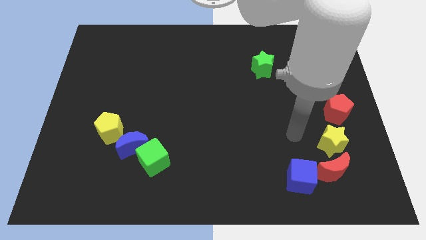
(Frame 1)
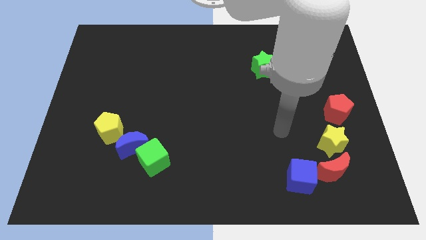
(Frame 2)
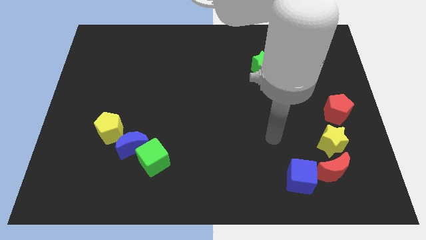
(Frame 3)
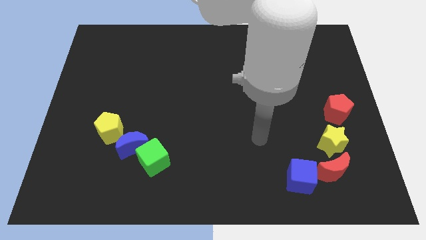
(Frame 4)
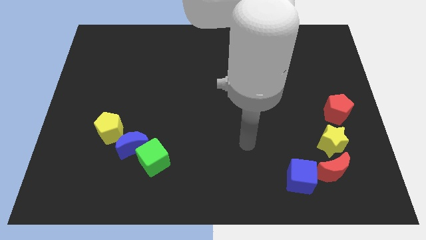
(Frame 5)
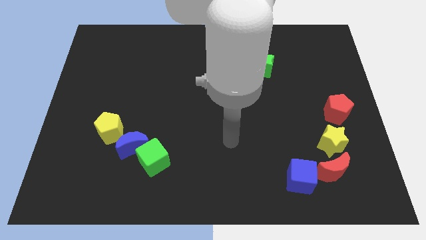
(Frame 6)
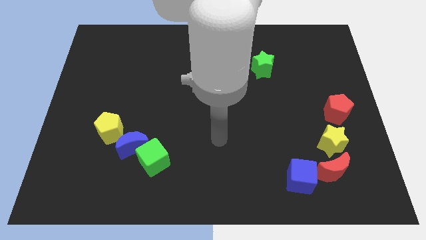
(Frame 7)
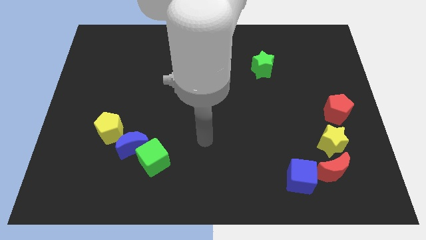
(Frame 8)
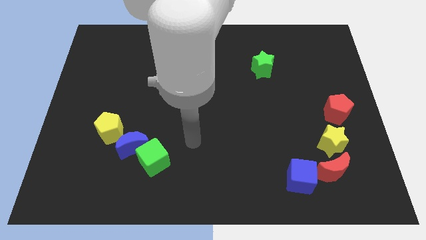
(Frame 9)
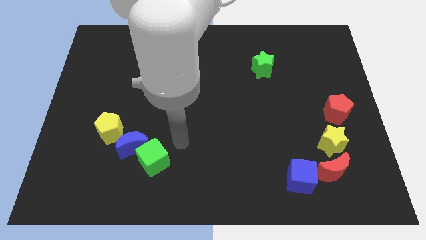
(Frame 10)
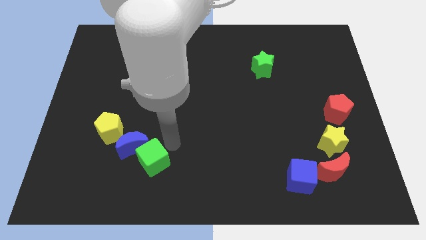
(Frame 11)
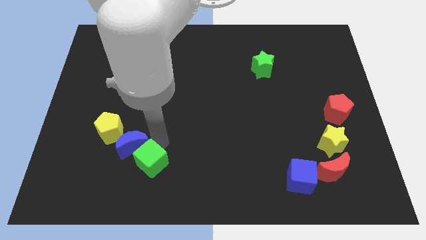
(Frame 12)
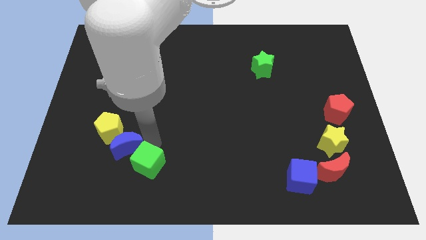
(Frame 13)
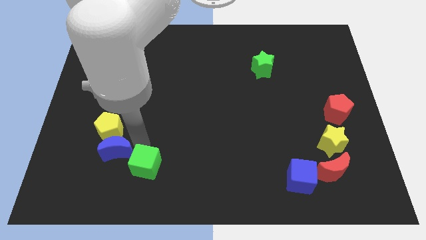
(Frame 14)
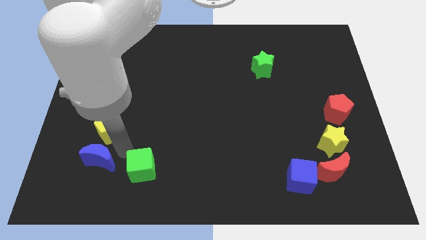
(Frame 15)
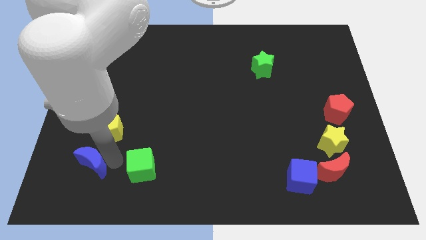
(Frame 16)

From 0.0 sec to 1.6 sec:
pull the green cube apart from the blue moon

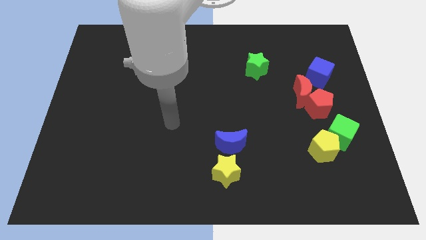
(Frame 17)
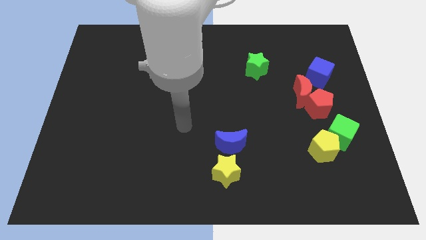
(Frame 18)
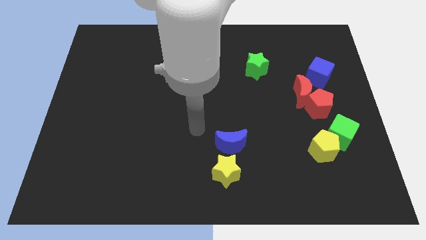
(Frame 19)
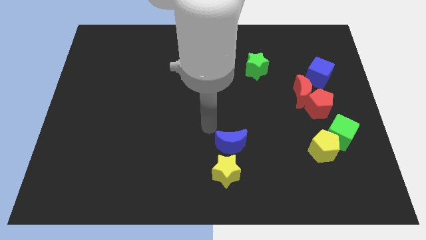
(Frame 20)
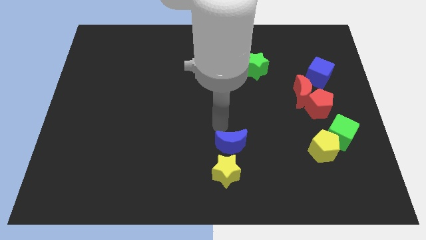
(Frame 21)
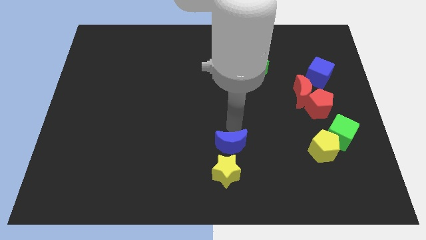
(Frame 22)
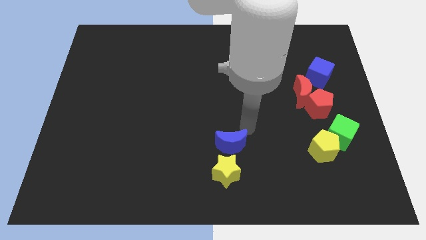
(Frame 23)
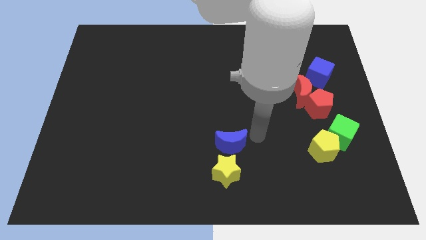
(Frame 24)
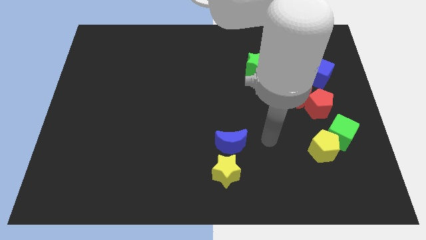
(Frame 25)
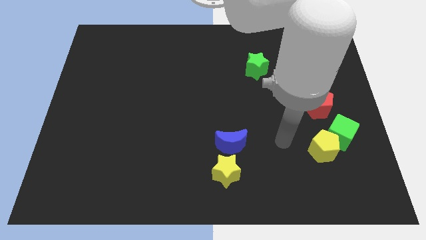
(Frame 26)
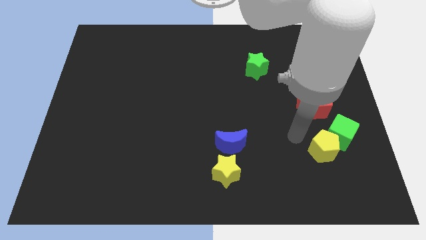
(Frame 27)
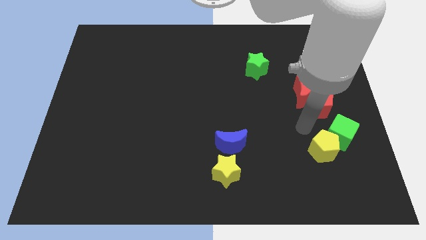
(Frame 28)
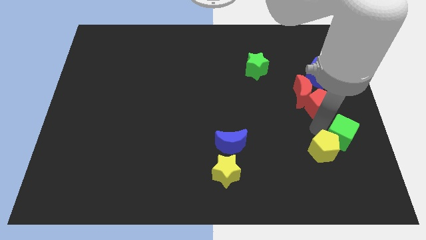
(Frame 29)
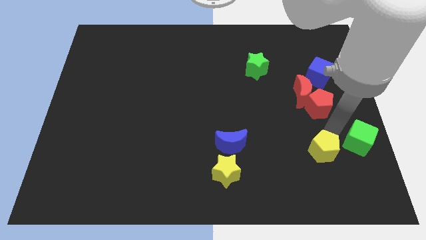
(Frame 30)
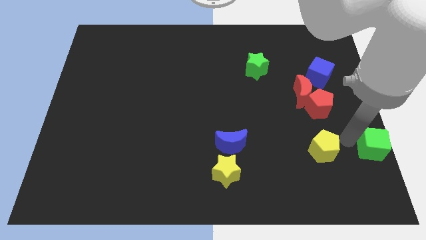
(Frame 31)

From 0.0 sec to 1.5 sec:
move the yellow pentagon away from the green cube

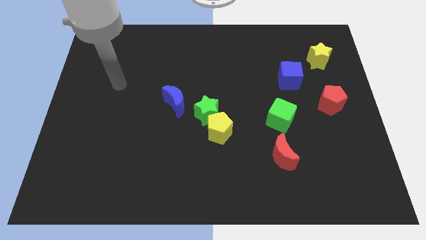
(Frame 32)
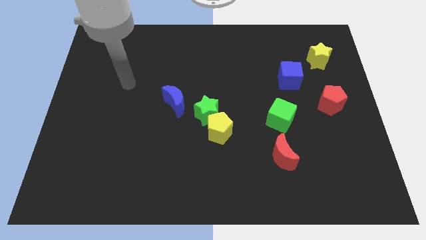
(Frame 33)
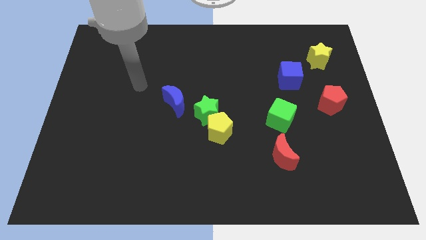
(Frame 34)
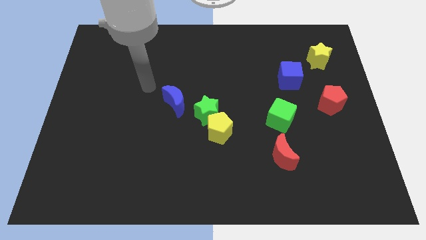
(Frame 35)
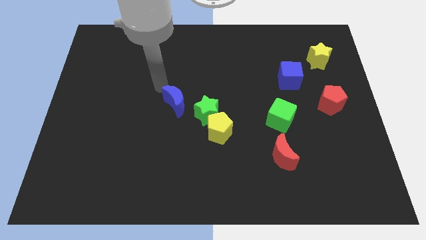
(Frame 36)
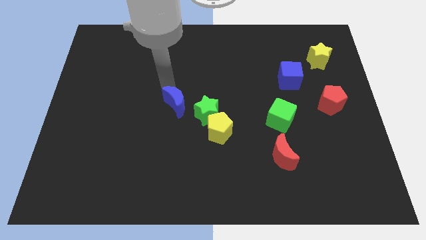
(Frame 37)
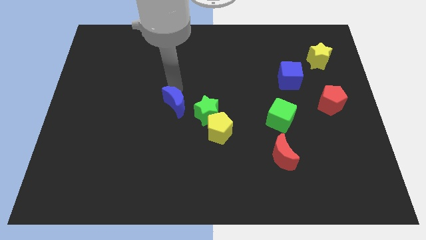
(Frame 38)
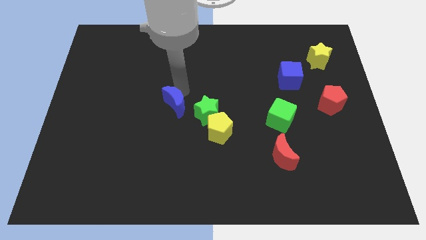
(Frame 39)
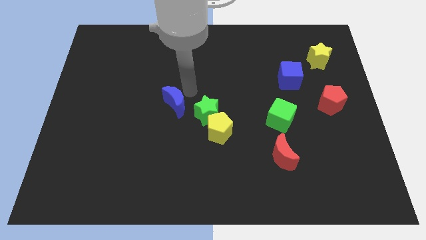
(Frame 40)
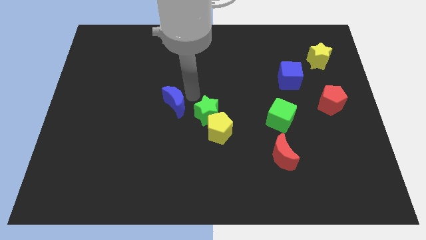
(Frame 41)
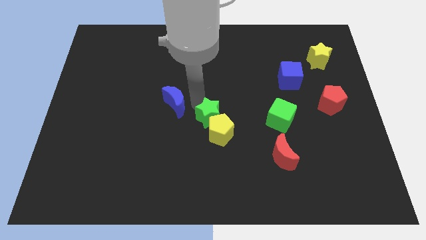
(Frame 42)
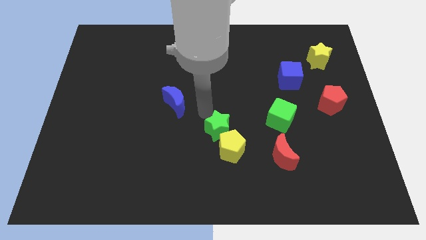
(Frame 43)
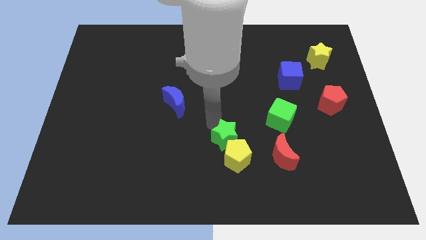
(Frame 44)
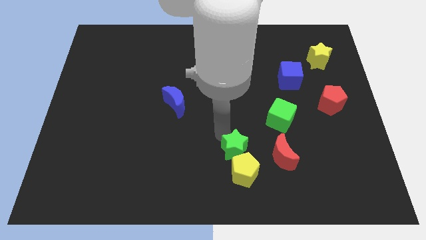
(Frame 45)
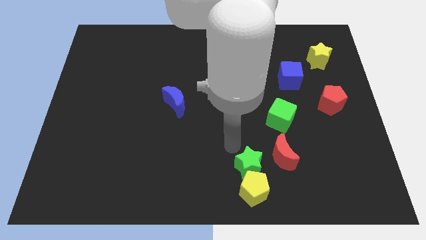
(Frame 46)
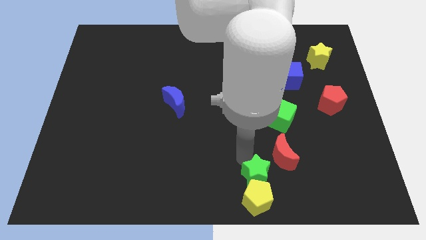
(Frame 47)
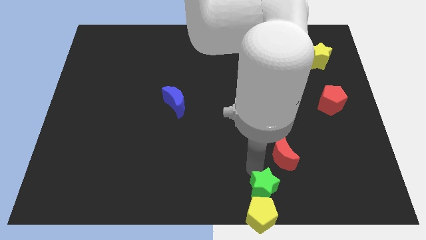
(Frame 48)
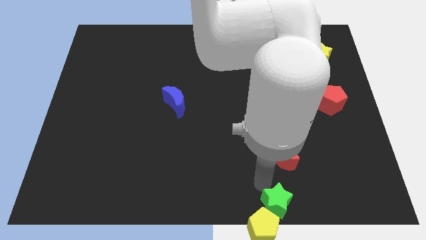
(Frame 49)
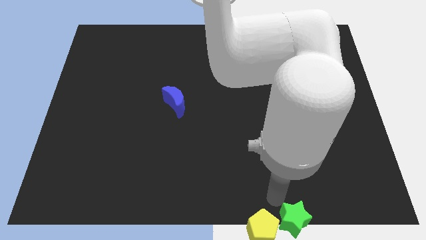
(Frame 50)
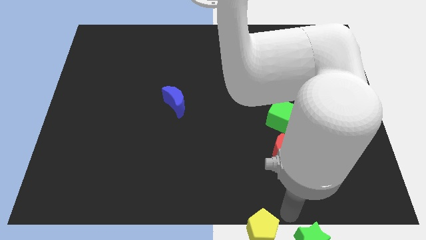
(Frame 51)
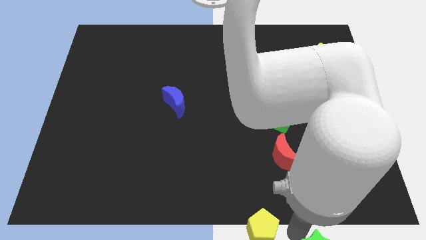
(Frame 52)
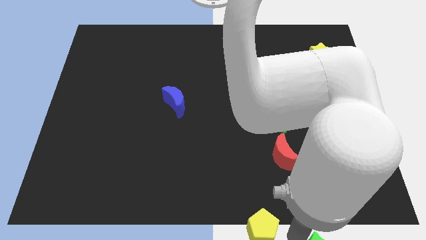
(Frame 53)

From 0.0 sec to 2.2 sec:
separate the yellow pentagon from the green star

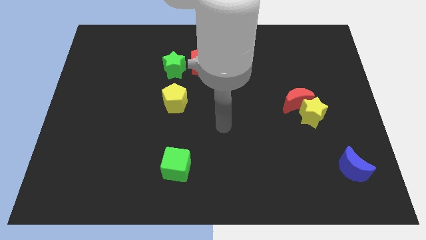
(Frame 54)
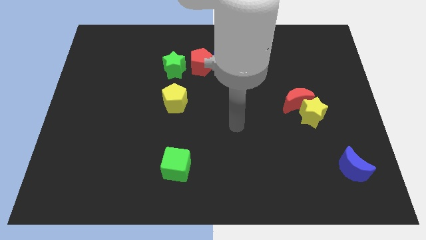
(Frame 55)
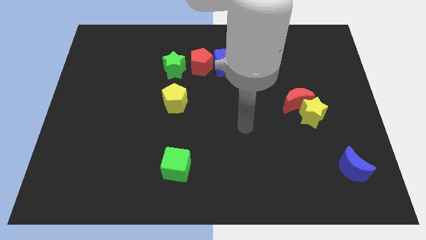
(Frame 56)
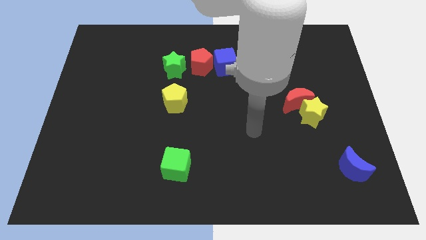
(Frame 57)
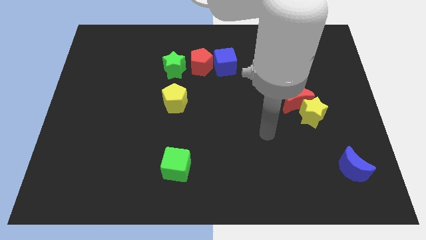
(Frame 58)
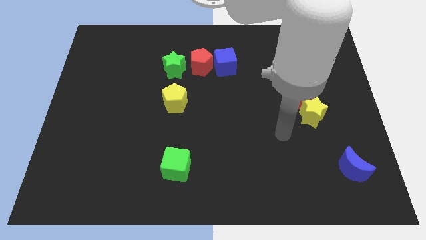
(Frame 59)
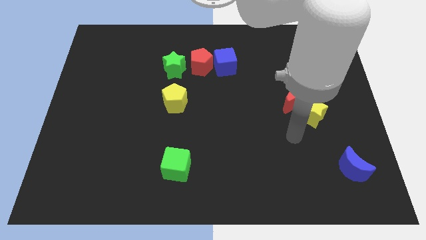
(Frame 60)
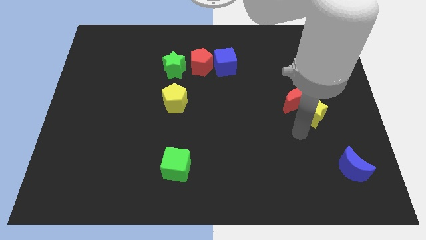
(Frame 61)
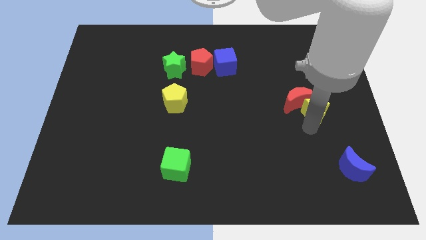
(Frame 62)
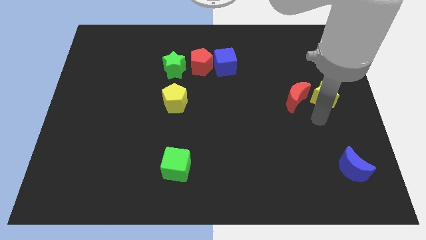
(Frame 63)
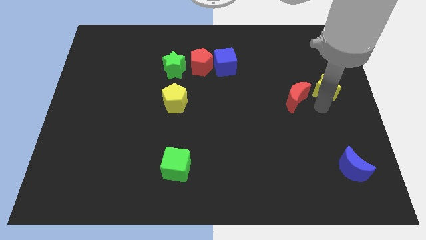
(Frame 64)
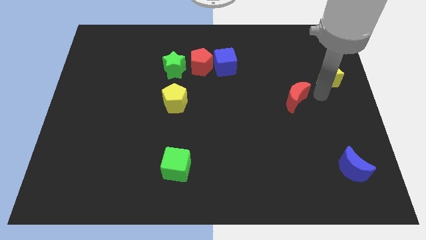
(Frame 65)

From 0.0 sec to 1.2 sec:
separate the red moon from the yellow star

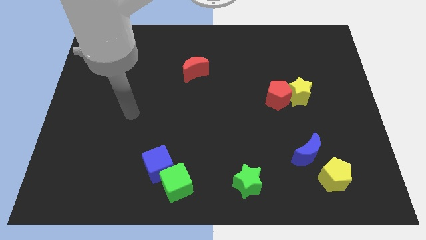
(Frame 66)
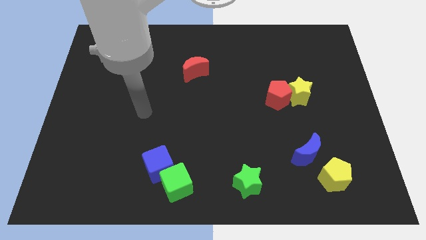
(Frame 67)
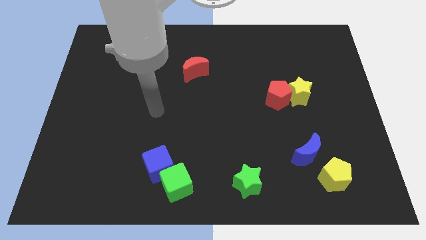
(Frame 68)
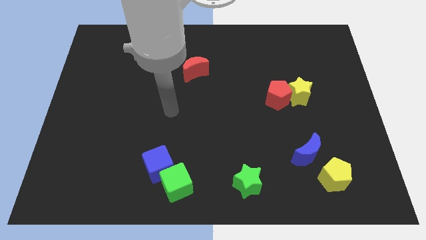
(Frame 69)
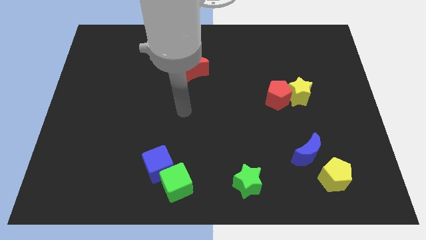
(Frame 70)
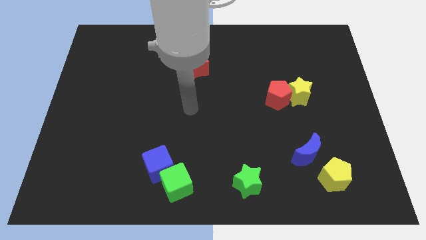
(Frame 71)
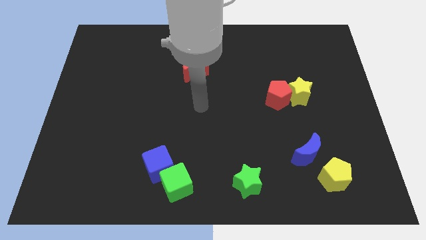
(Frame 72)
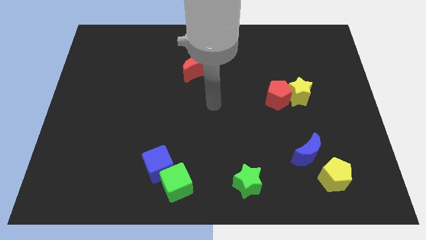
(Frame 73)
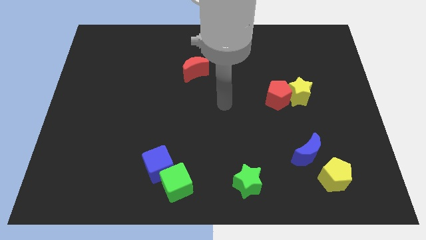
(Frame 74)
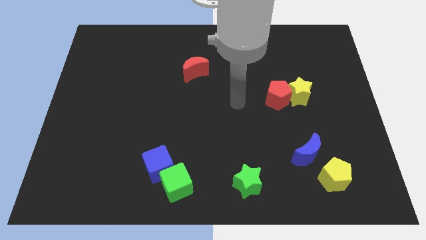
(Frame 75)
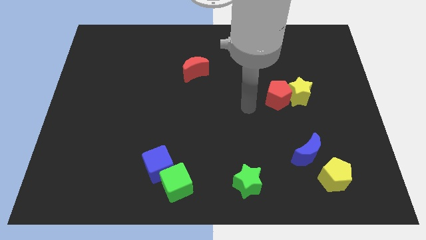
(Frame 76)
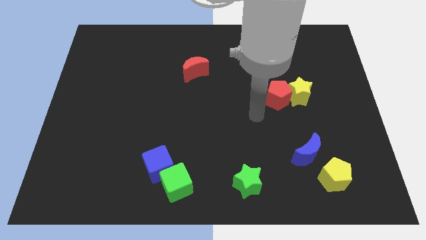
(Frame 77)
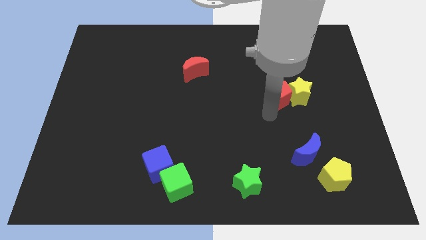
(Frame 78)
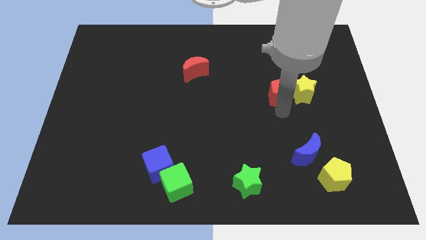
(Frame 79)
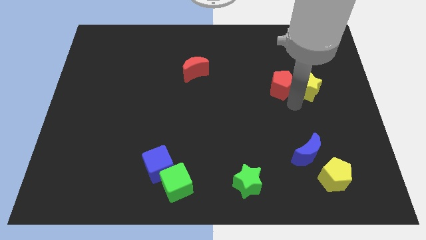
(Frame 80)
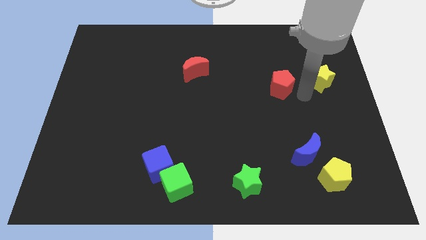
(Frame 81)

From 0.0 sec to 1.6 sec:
move the red pentagon away from the yellow star

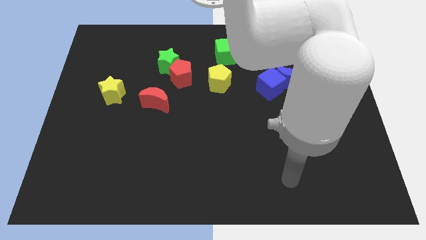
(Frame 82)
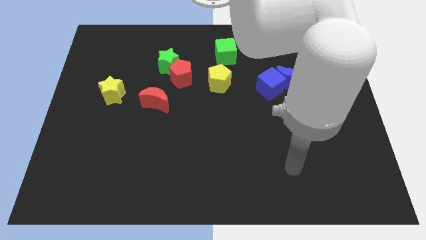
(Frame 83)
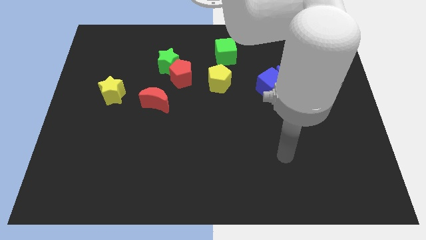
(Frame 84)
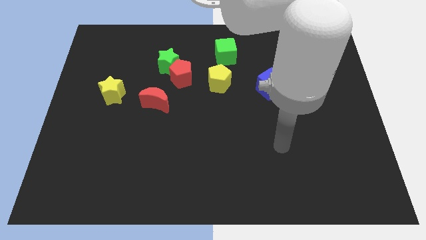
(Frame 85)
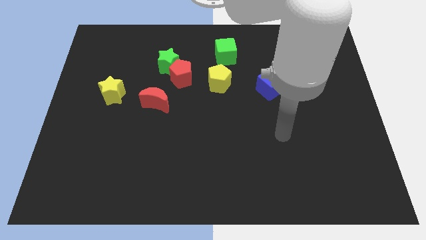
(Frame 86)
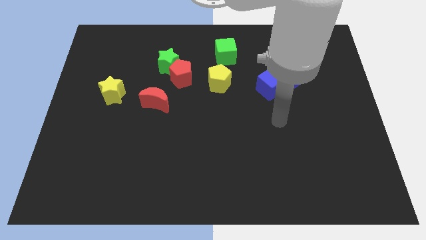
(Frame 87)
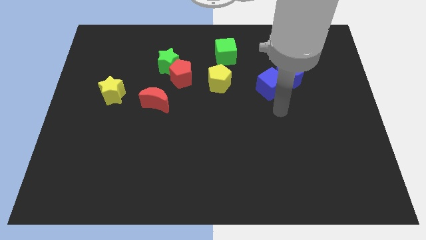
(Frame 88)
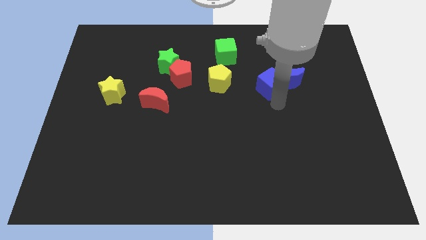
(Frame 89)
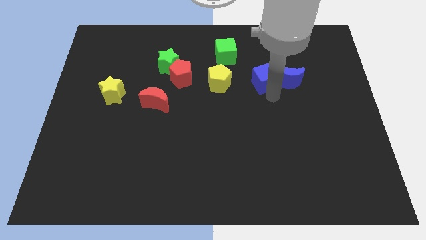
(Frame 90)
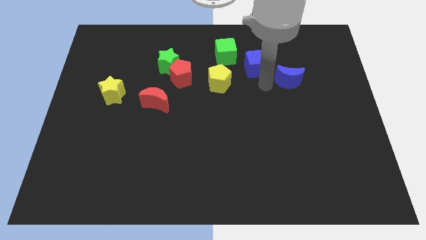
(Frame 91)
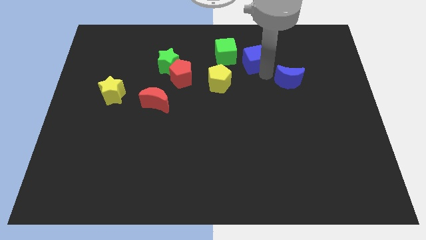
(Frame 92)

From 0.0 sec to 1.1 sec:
pull the blue moon apart from the blue cube
